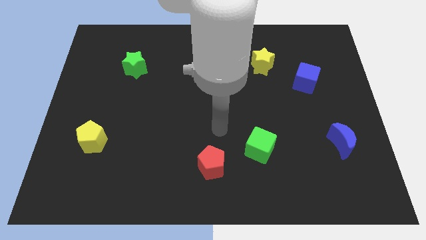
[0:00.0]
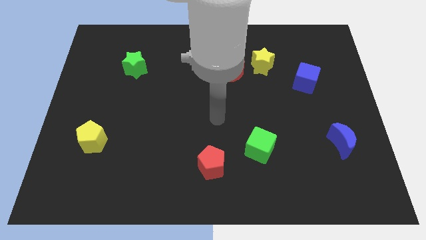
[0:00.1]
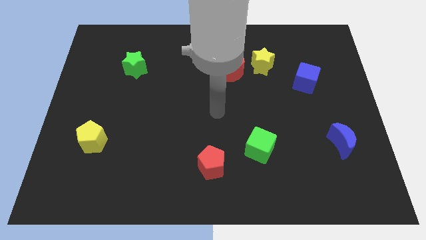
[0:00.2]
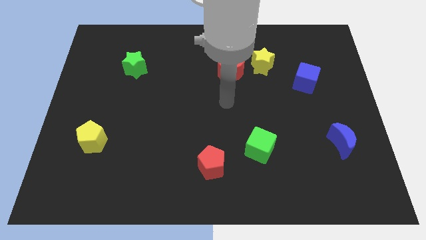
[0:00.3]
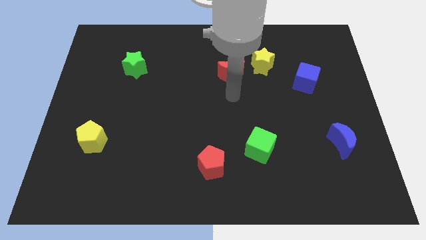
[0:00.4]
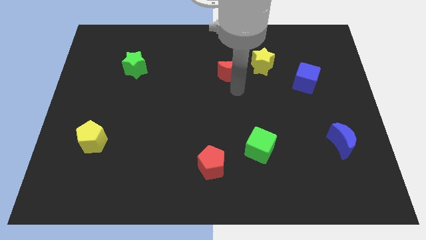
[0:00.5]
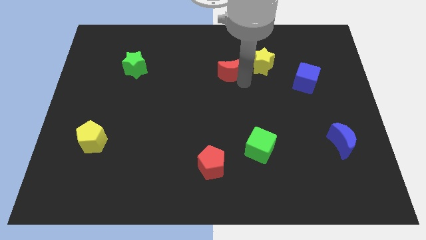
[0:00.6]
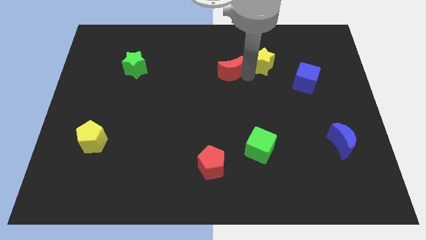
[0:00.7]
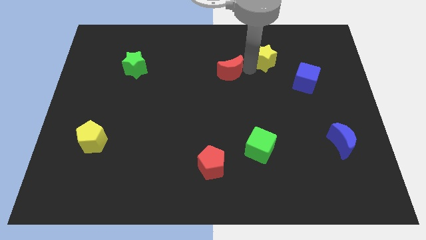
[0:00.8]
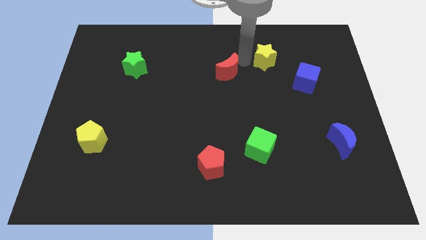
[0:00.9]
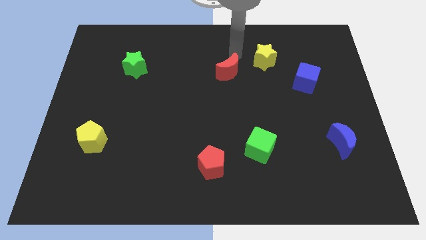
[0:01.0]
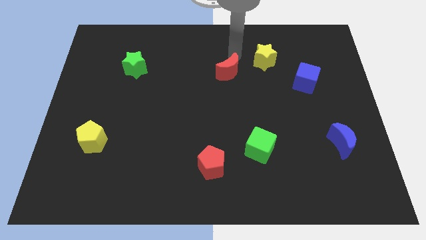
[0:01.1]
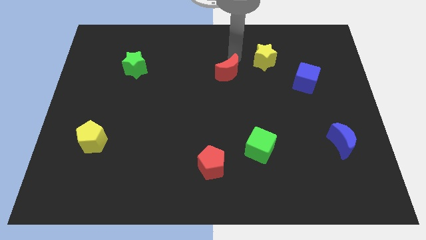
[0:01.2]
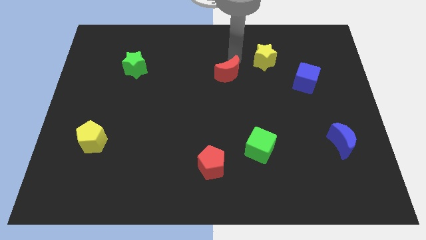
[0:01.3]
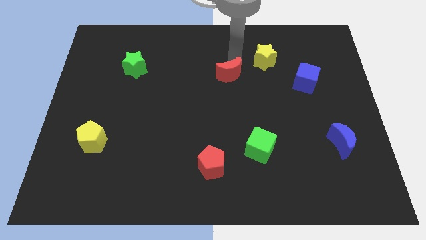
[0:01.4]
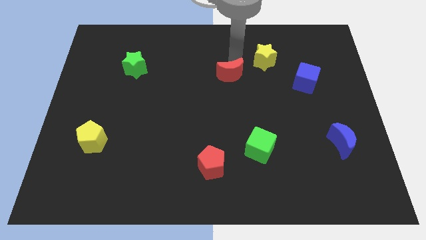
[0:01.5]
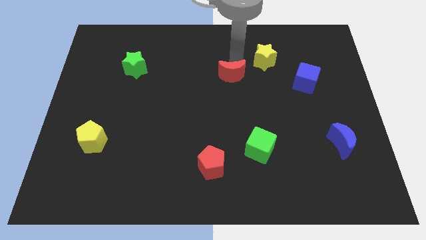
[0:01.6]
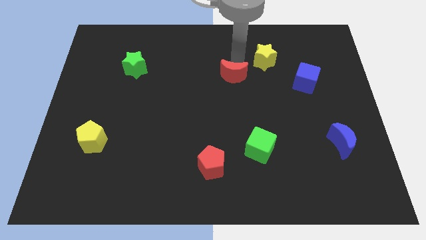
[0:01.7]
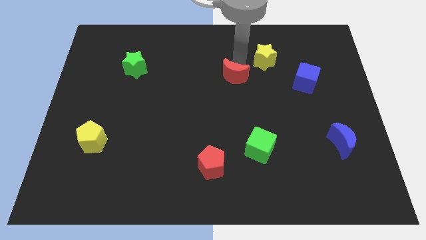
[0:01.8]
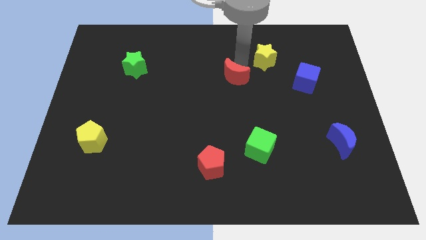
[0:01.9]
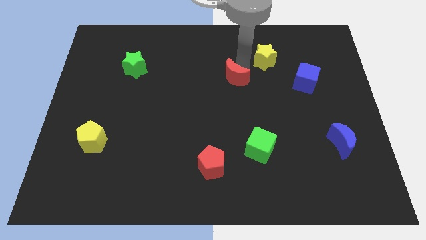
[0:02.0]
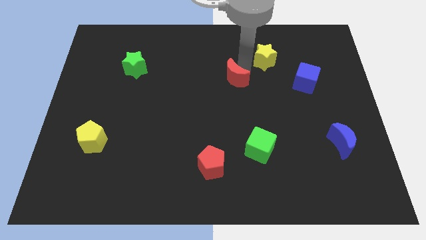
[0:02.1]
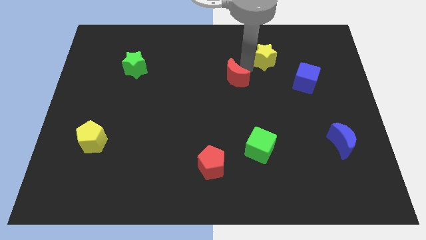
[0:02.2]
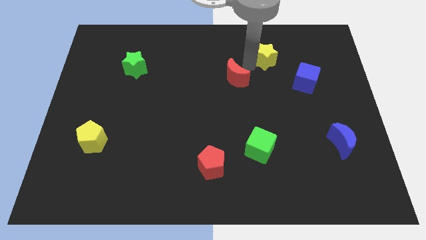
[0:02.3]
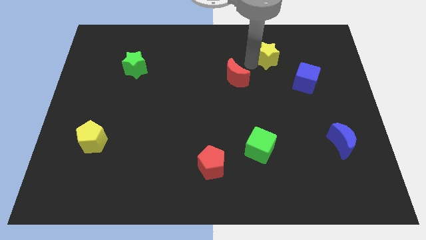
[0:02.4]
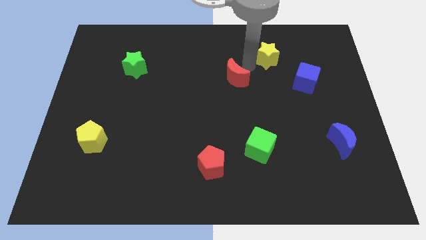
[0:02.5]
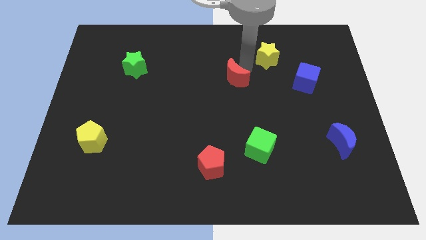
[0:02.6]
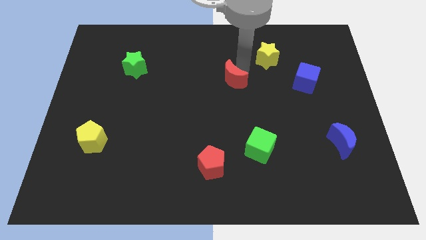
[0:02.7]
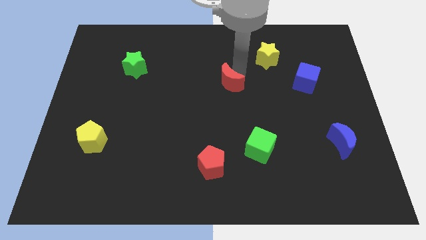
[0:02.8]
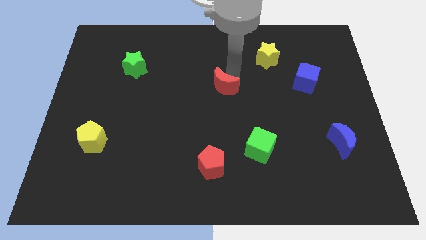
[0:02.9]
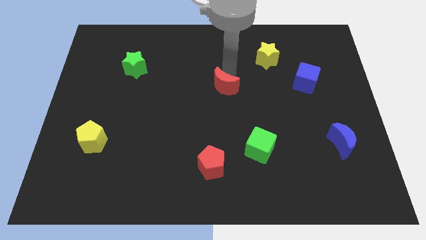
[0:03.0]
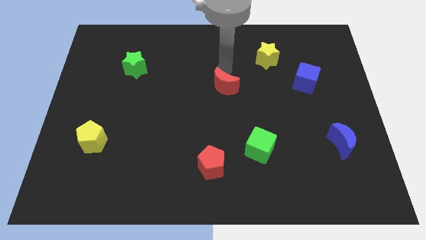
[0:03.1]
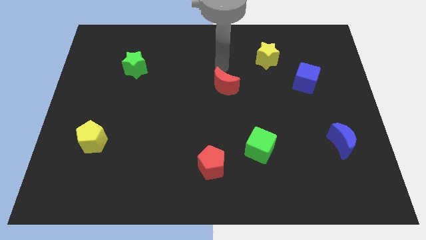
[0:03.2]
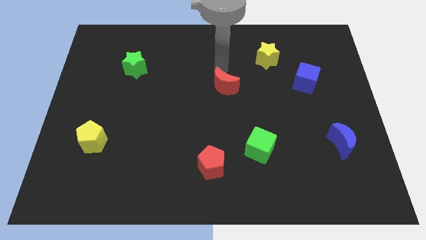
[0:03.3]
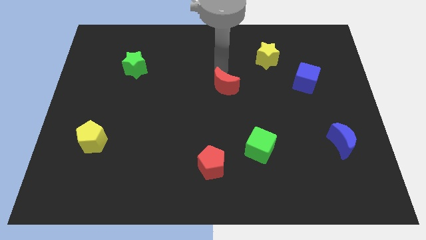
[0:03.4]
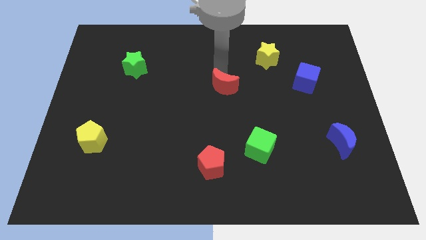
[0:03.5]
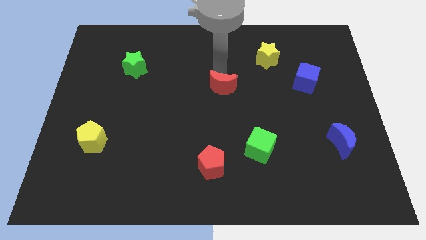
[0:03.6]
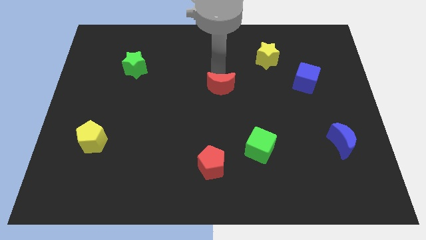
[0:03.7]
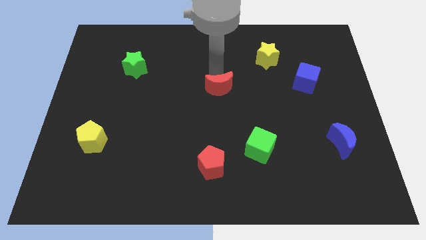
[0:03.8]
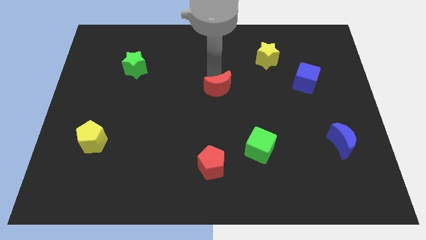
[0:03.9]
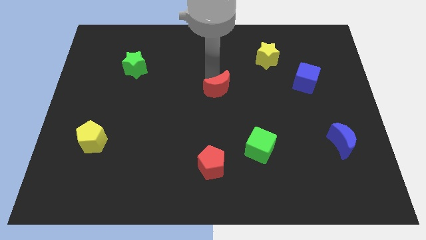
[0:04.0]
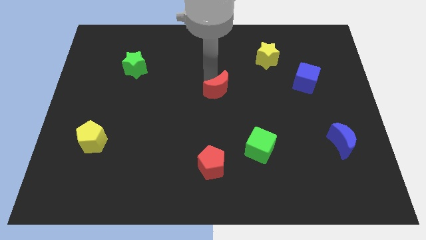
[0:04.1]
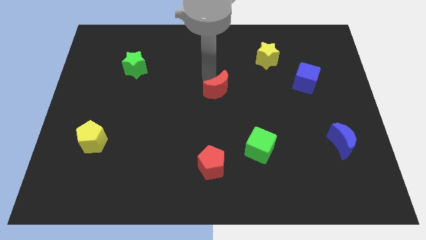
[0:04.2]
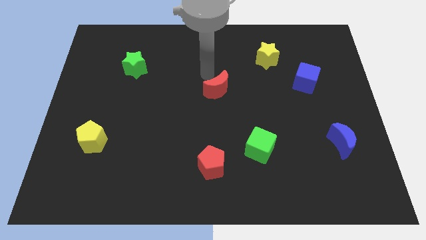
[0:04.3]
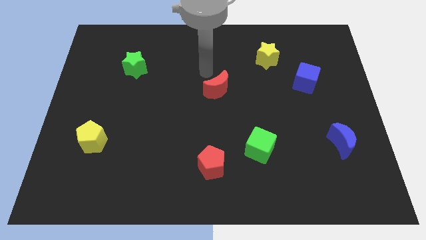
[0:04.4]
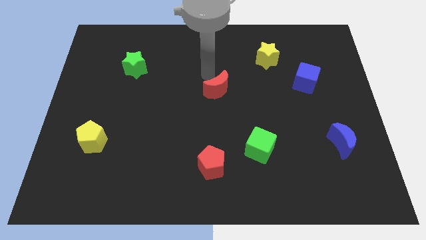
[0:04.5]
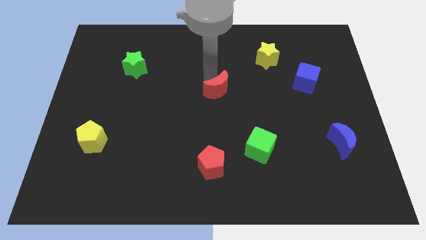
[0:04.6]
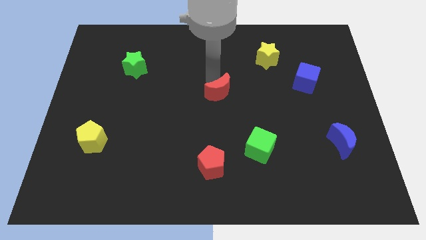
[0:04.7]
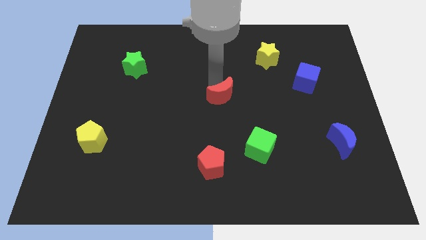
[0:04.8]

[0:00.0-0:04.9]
slightly push the red moon down

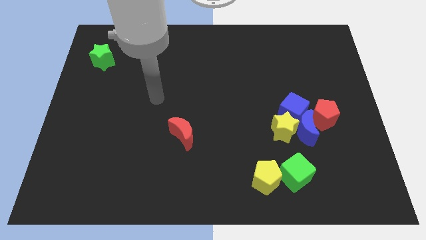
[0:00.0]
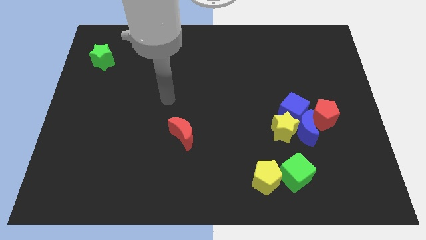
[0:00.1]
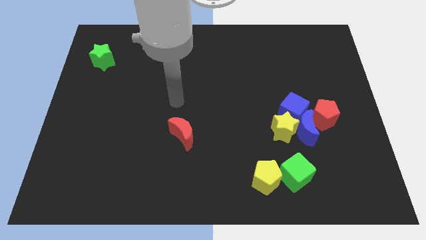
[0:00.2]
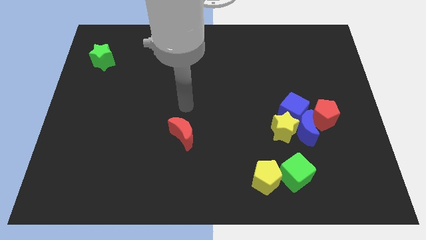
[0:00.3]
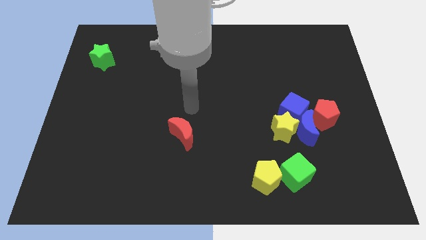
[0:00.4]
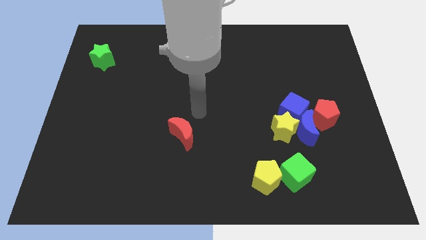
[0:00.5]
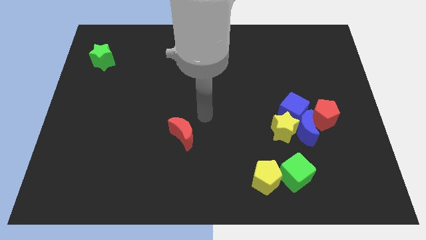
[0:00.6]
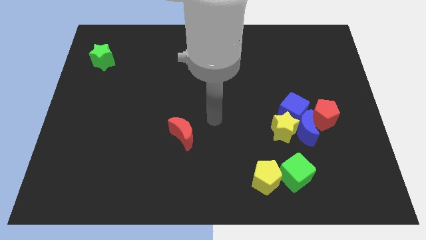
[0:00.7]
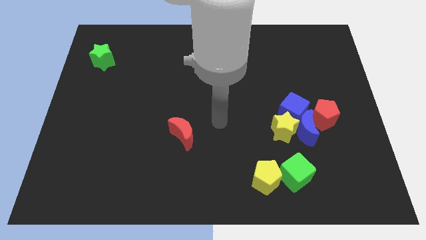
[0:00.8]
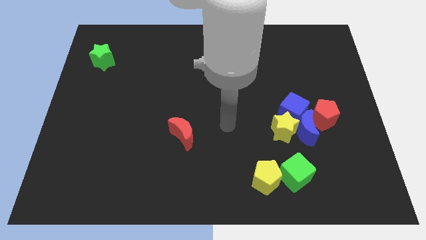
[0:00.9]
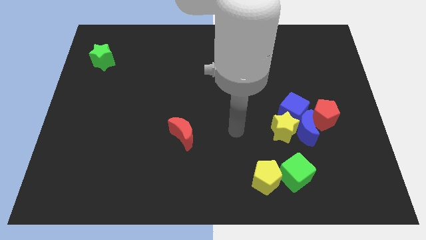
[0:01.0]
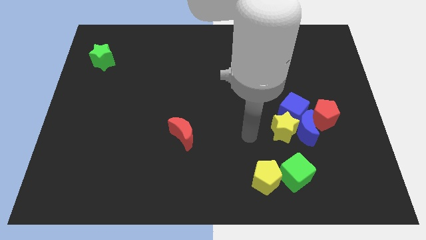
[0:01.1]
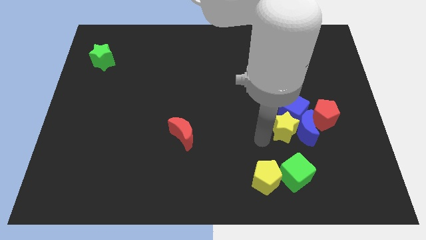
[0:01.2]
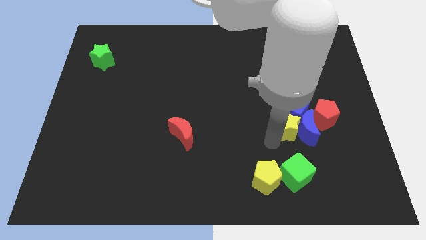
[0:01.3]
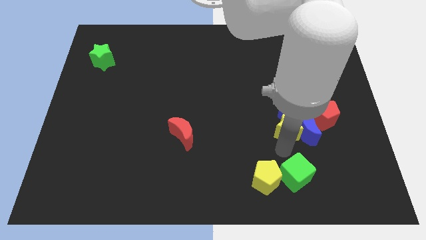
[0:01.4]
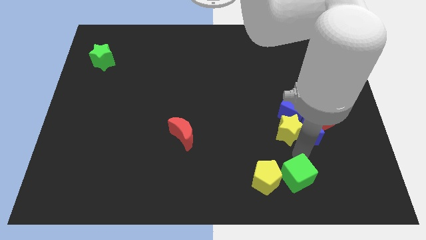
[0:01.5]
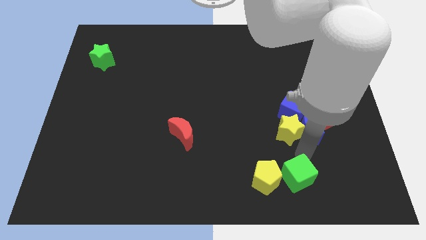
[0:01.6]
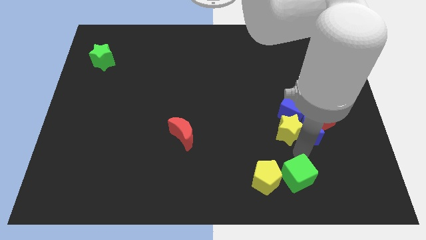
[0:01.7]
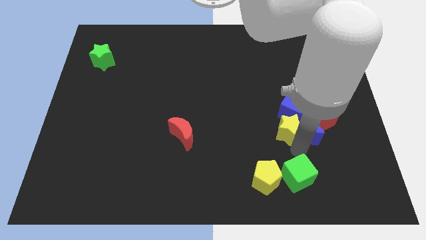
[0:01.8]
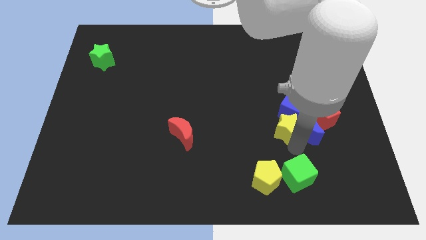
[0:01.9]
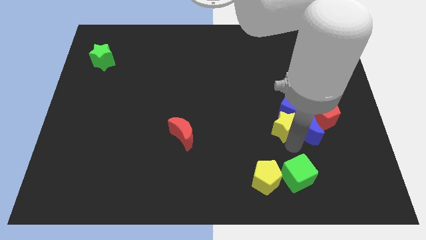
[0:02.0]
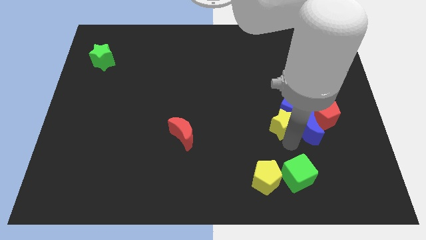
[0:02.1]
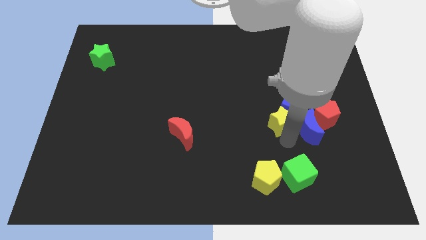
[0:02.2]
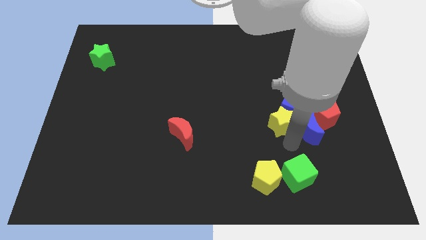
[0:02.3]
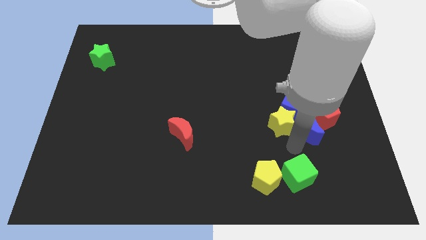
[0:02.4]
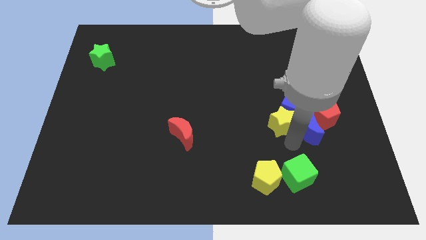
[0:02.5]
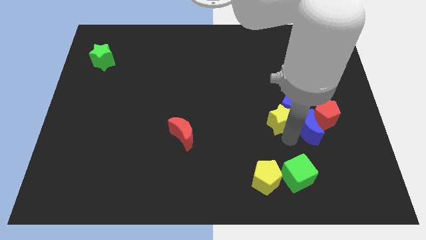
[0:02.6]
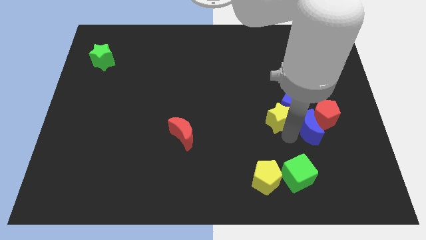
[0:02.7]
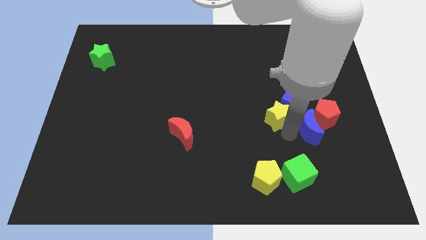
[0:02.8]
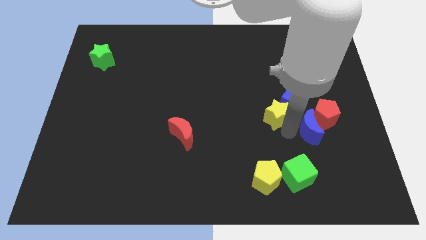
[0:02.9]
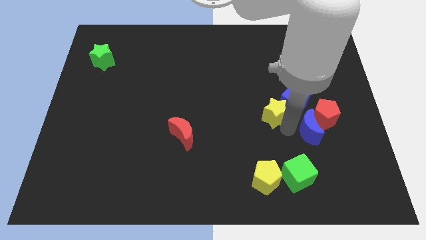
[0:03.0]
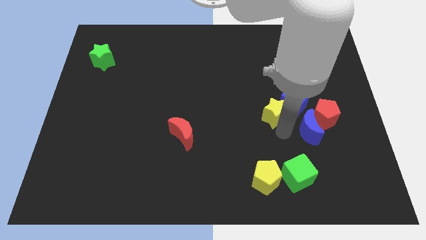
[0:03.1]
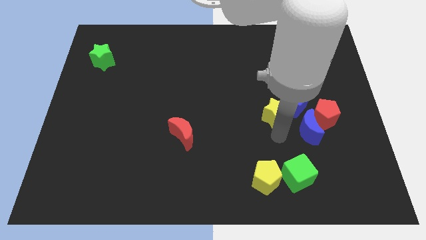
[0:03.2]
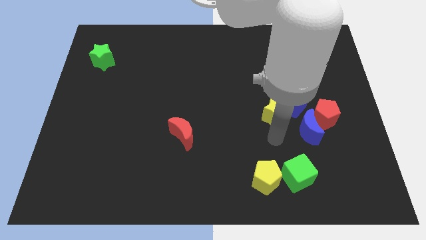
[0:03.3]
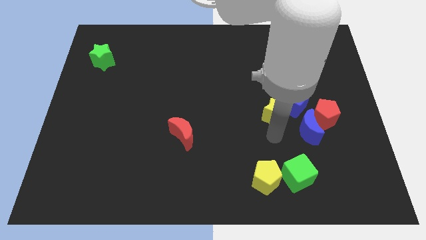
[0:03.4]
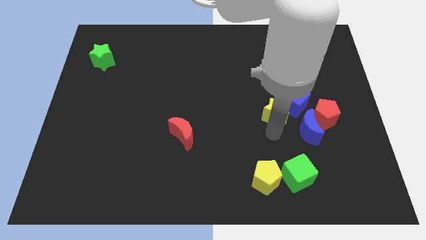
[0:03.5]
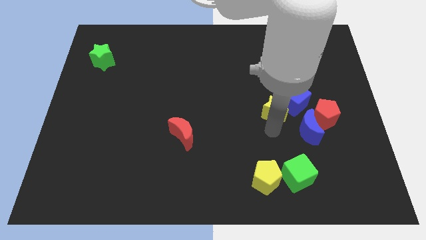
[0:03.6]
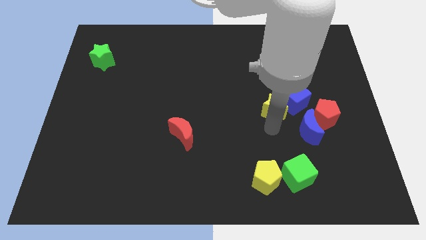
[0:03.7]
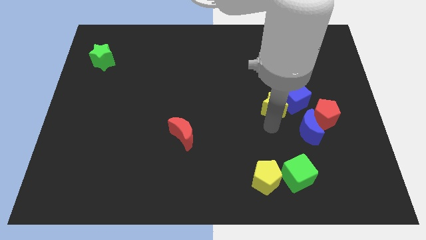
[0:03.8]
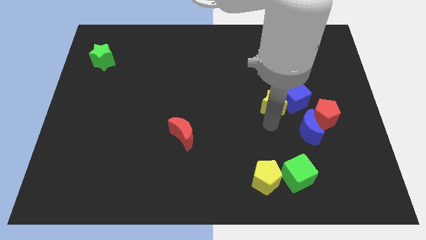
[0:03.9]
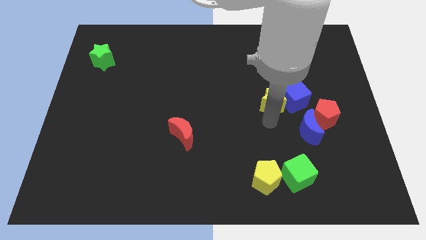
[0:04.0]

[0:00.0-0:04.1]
move the yellow star a little bit upwards
